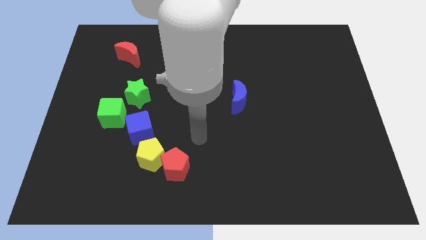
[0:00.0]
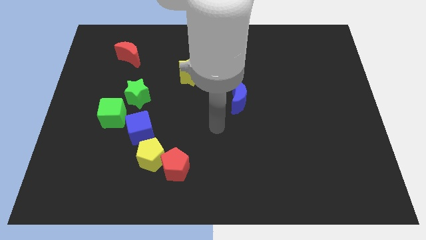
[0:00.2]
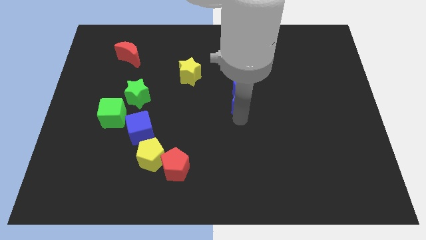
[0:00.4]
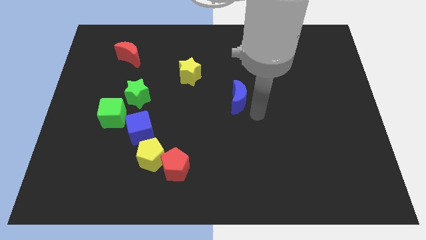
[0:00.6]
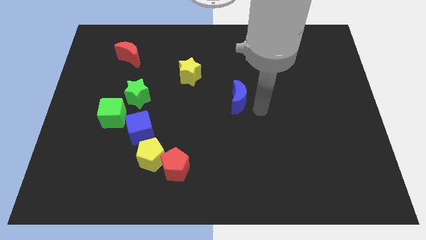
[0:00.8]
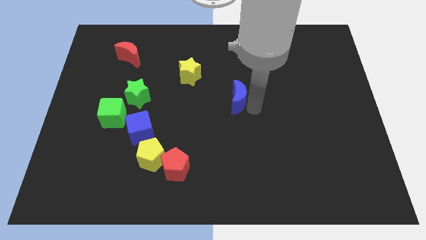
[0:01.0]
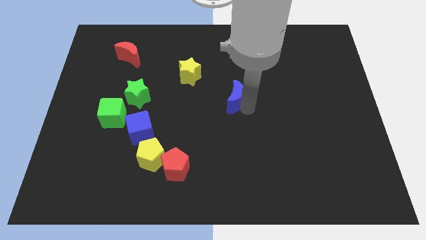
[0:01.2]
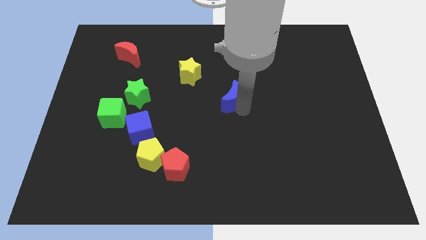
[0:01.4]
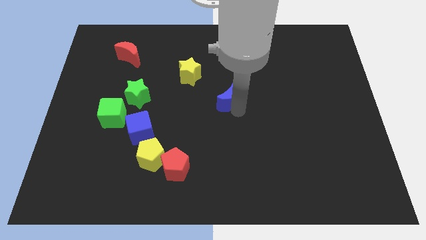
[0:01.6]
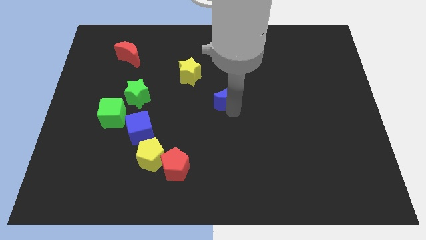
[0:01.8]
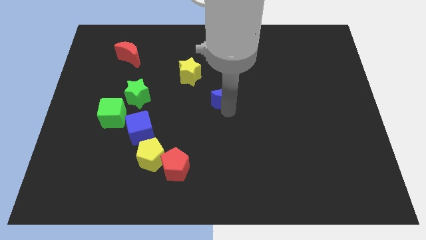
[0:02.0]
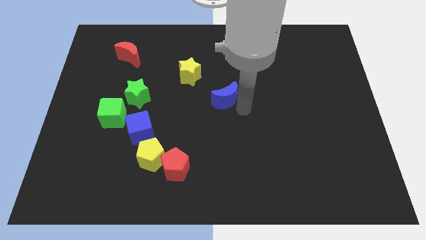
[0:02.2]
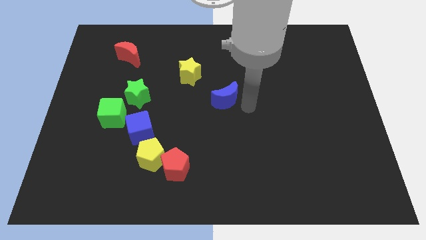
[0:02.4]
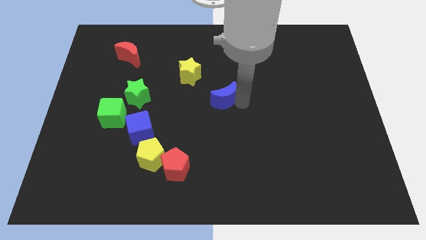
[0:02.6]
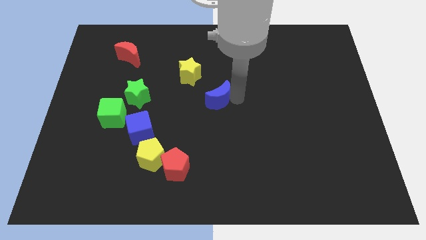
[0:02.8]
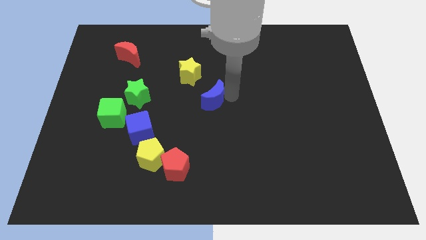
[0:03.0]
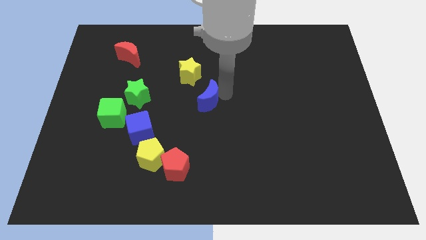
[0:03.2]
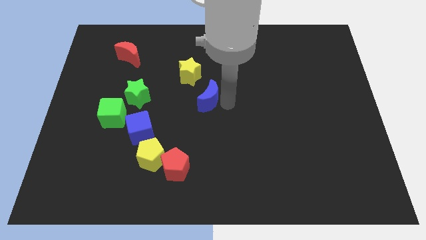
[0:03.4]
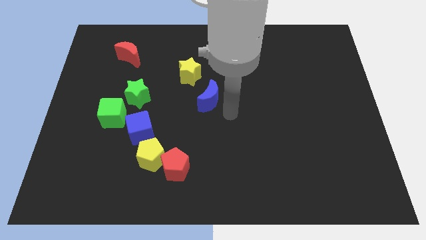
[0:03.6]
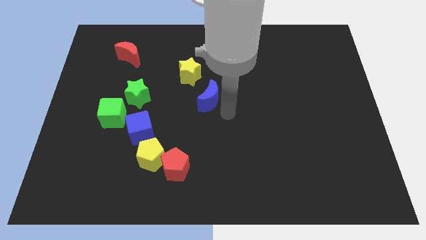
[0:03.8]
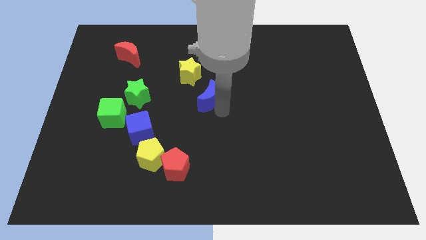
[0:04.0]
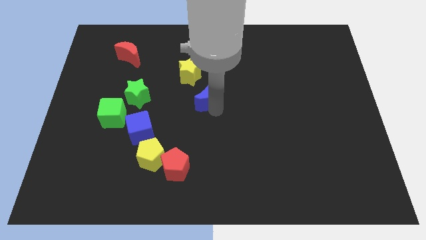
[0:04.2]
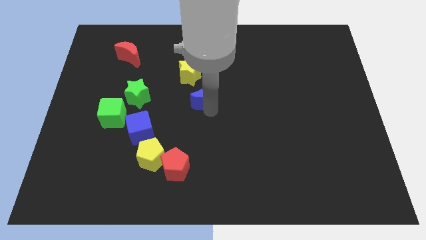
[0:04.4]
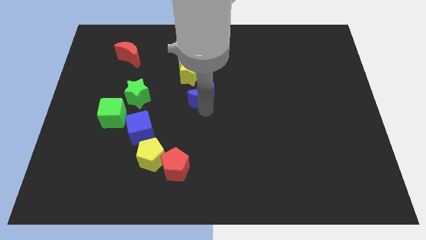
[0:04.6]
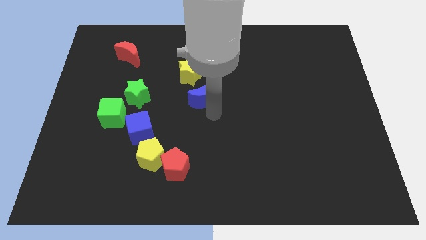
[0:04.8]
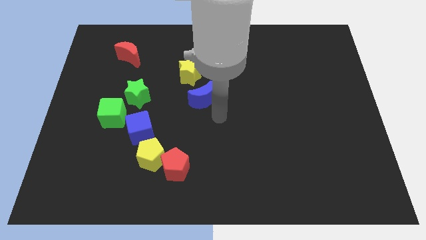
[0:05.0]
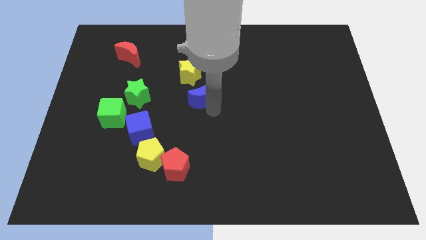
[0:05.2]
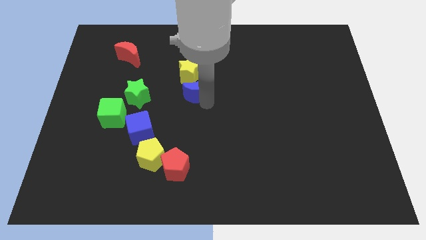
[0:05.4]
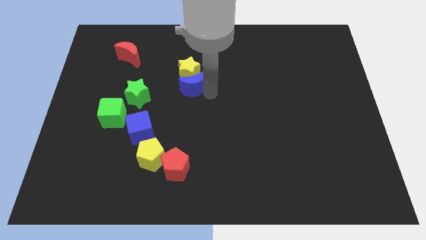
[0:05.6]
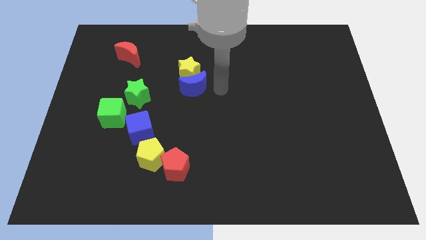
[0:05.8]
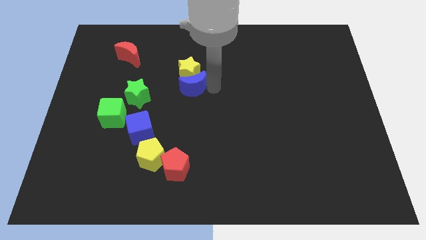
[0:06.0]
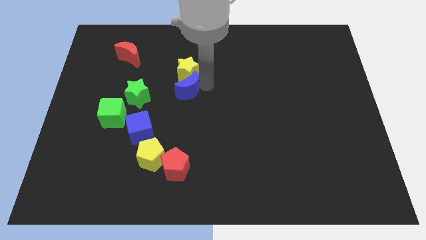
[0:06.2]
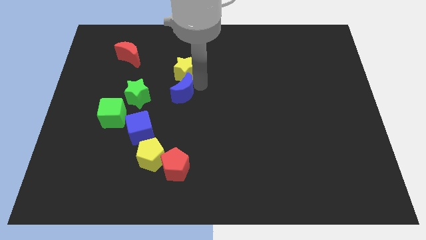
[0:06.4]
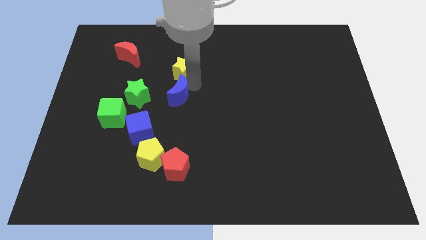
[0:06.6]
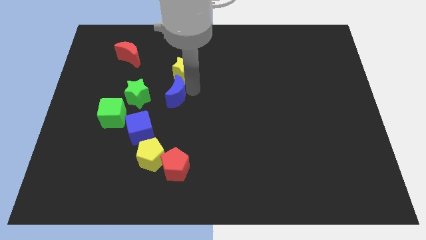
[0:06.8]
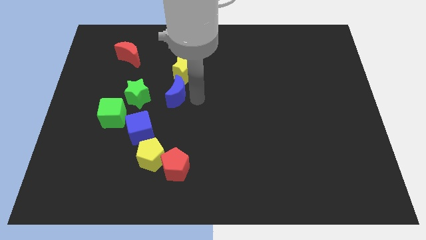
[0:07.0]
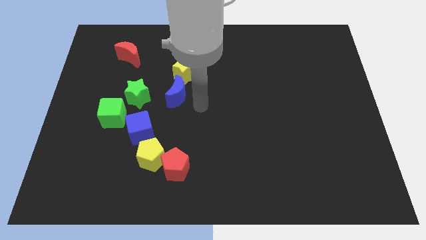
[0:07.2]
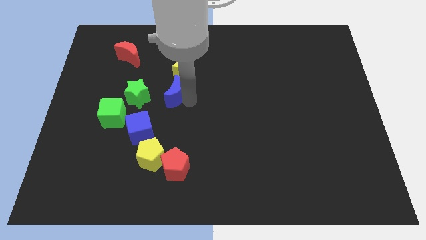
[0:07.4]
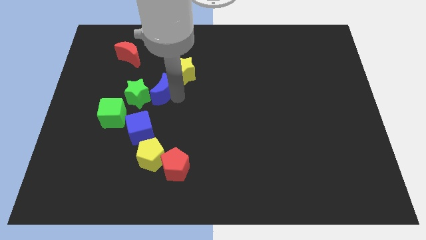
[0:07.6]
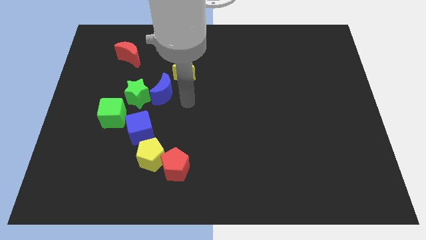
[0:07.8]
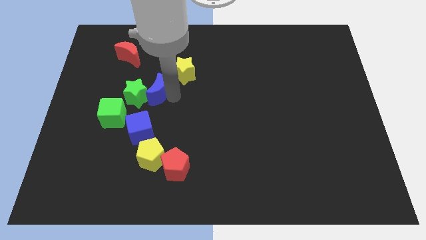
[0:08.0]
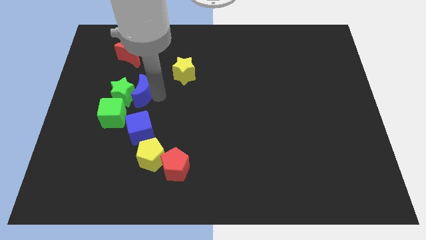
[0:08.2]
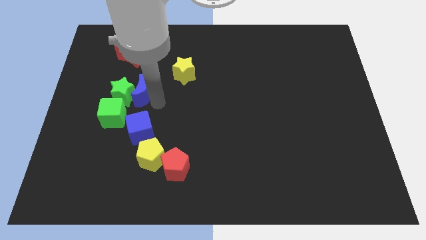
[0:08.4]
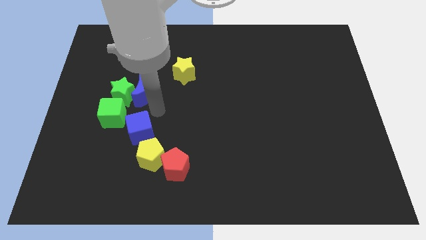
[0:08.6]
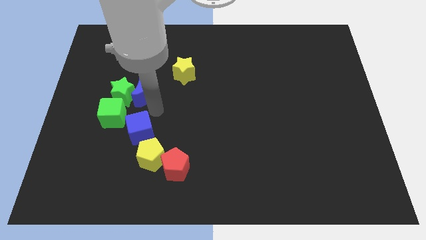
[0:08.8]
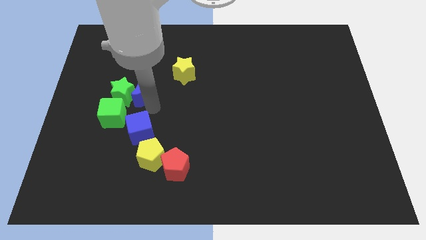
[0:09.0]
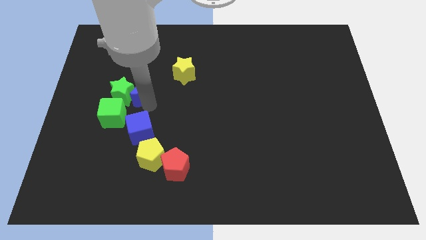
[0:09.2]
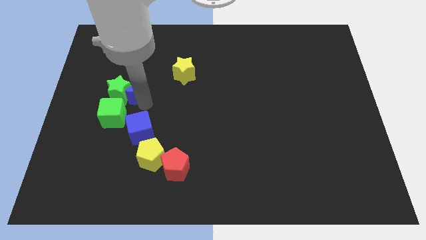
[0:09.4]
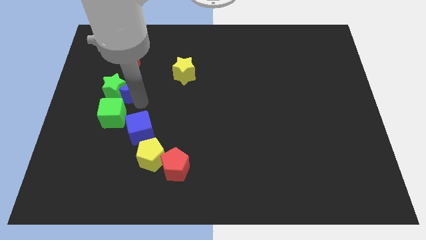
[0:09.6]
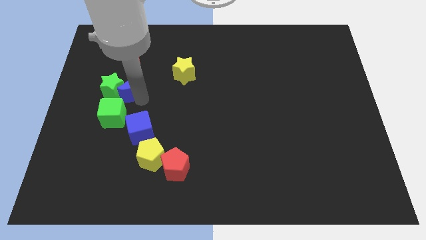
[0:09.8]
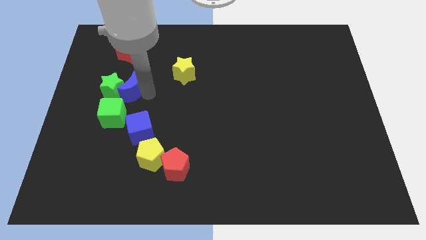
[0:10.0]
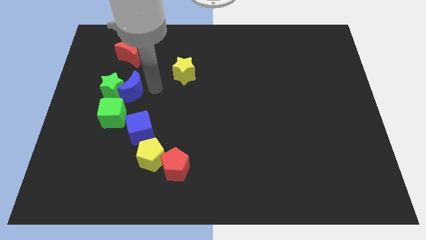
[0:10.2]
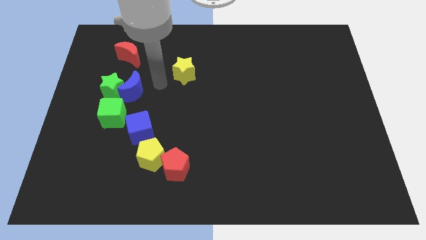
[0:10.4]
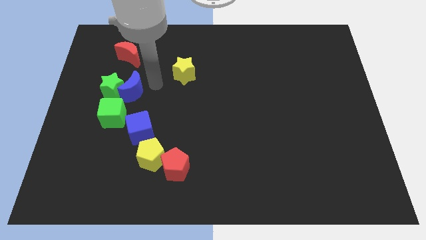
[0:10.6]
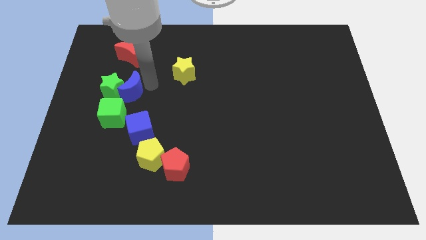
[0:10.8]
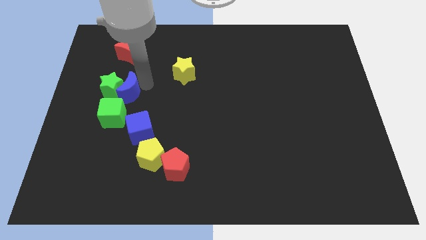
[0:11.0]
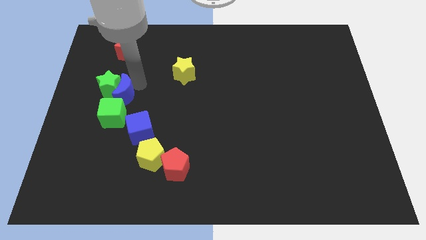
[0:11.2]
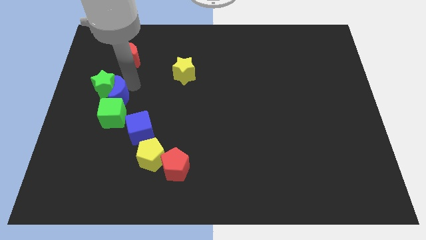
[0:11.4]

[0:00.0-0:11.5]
put the blue moon close to the green cube

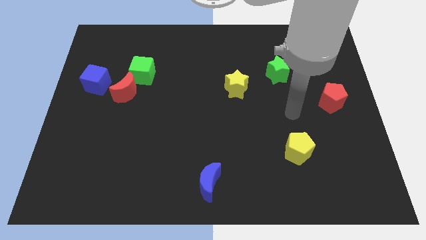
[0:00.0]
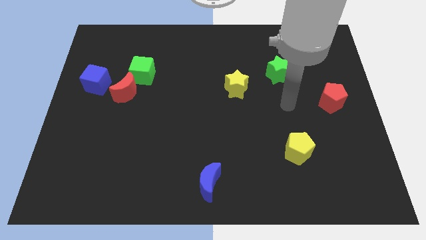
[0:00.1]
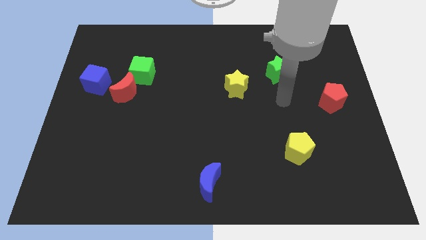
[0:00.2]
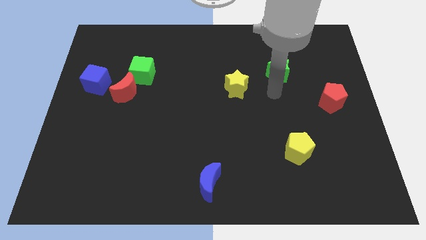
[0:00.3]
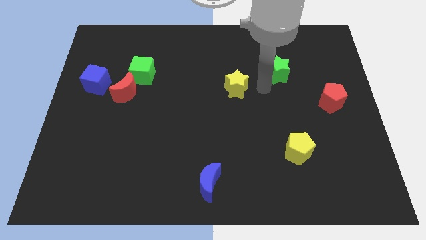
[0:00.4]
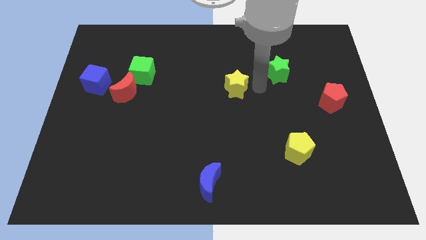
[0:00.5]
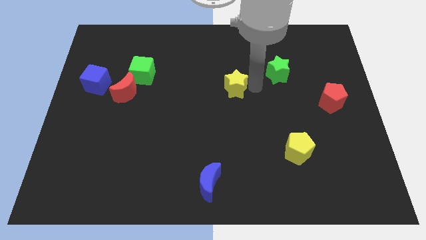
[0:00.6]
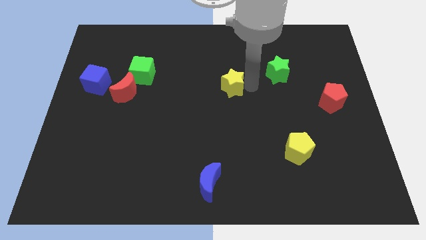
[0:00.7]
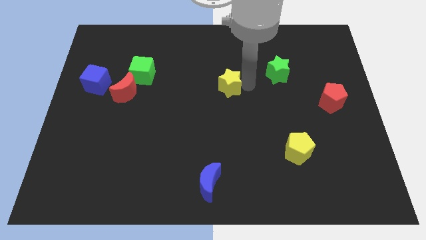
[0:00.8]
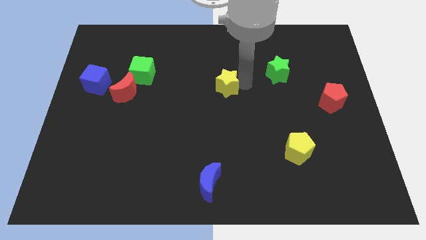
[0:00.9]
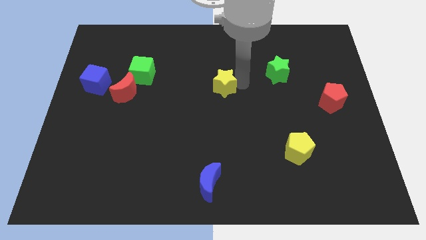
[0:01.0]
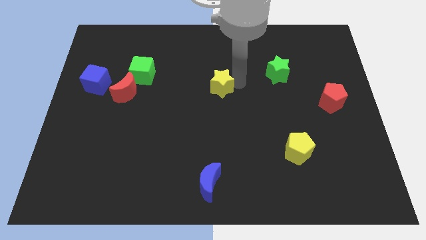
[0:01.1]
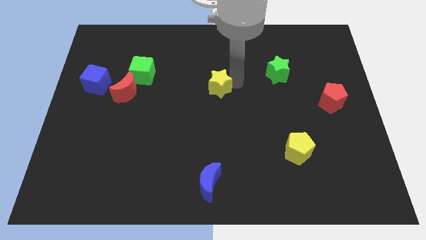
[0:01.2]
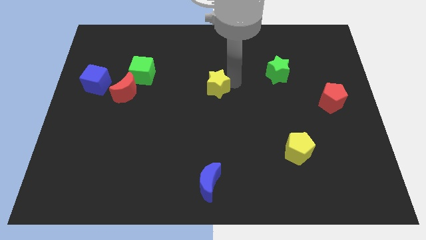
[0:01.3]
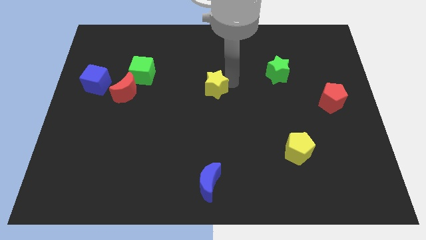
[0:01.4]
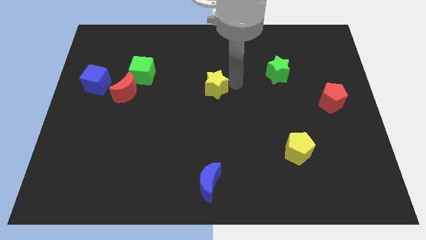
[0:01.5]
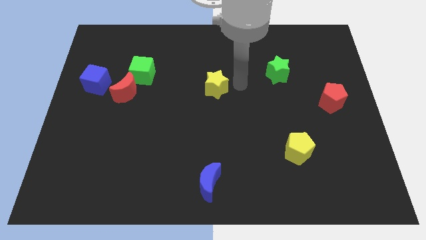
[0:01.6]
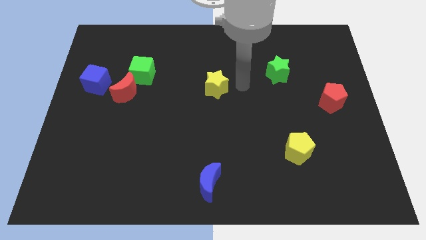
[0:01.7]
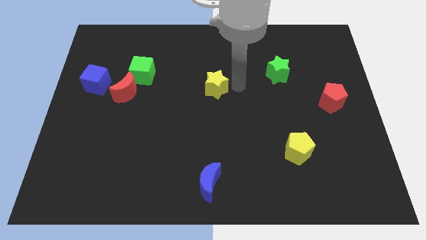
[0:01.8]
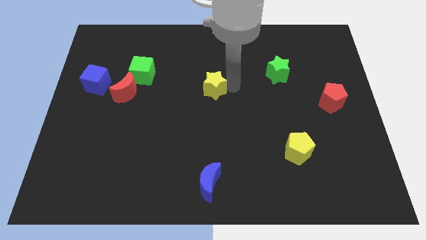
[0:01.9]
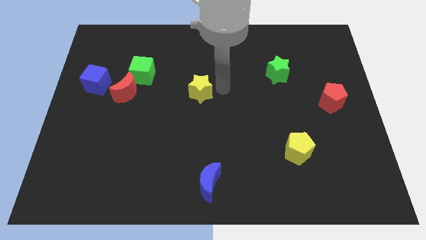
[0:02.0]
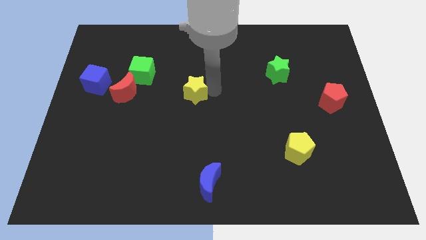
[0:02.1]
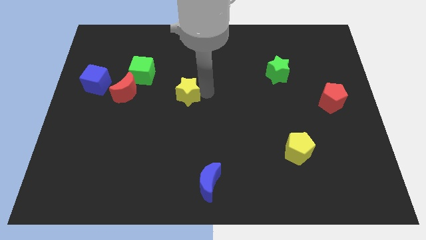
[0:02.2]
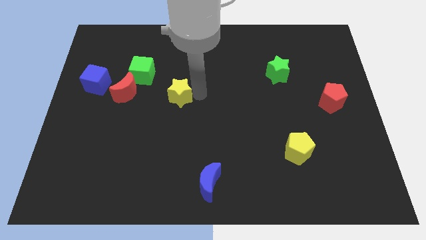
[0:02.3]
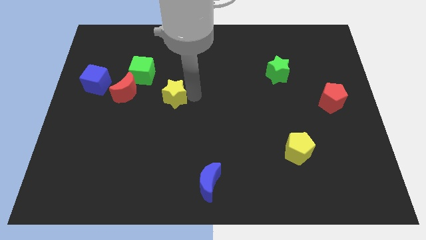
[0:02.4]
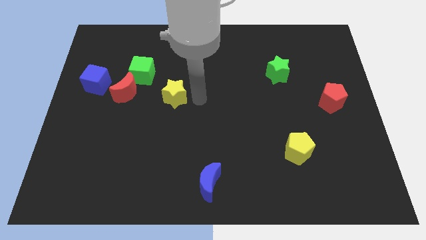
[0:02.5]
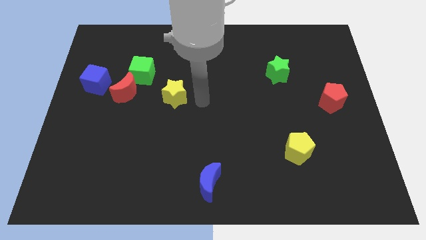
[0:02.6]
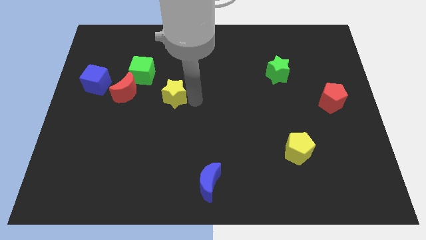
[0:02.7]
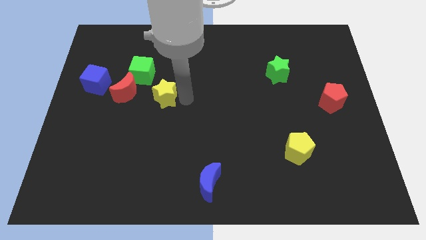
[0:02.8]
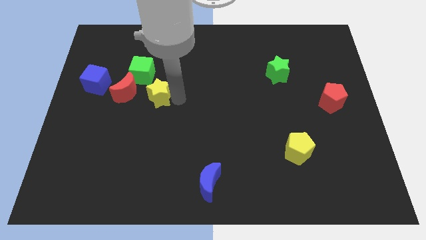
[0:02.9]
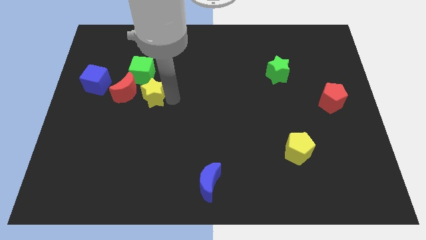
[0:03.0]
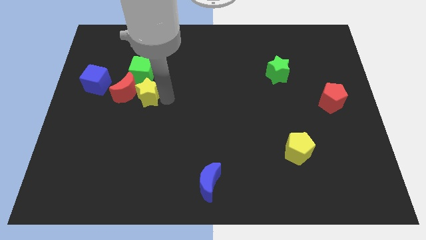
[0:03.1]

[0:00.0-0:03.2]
push the yellow star towards the red moon
